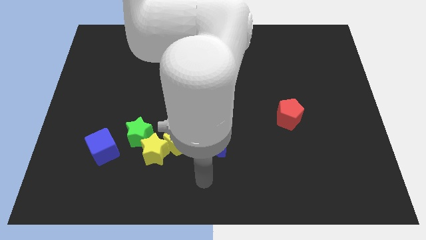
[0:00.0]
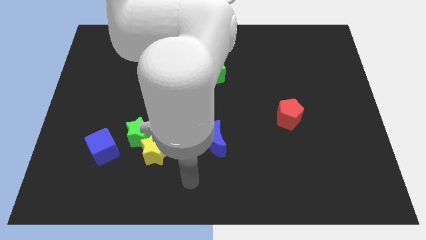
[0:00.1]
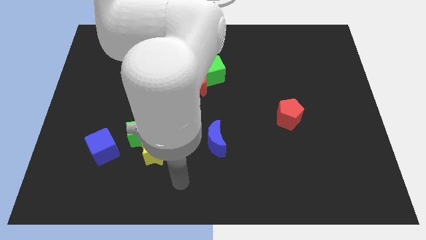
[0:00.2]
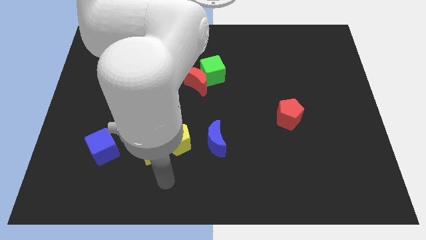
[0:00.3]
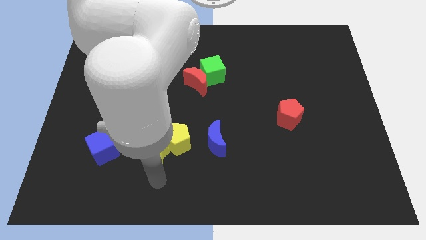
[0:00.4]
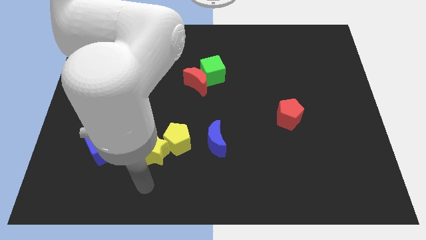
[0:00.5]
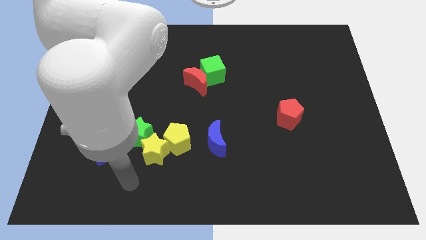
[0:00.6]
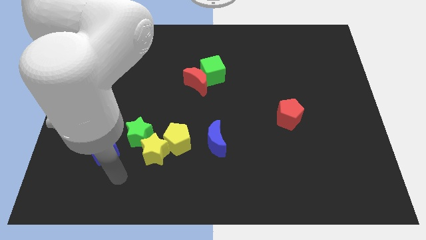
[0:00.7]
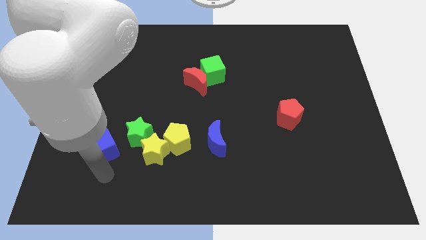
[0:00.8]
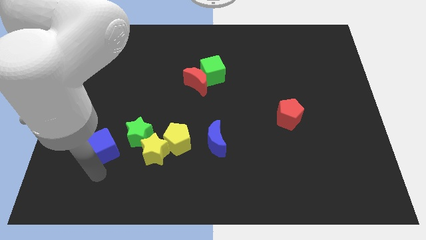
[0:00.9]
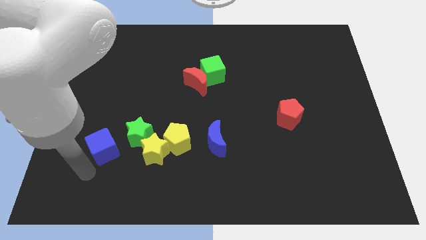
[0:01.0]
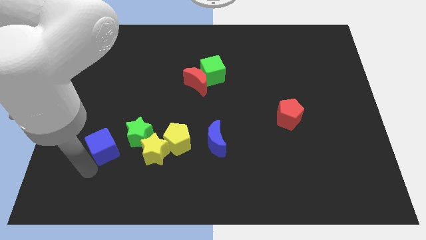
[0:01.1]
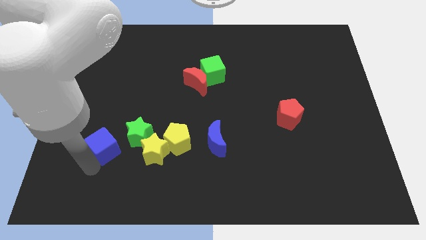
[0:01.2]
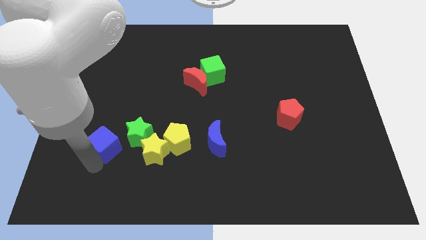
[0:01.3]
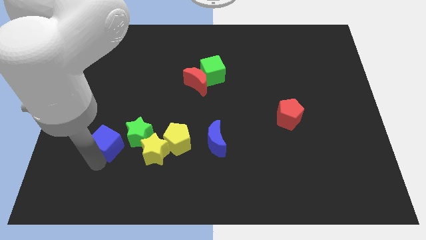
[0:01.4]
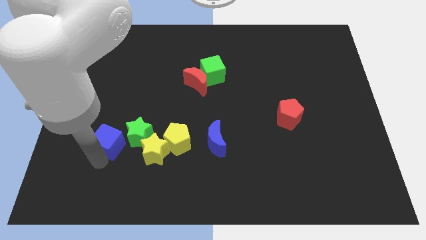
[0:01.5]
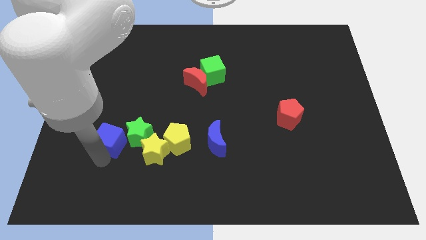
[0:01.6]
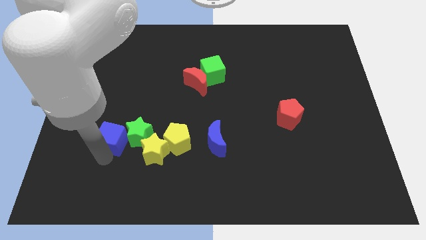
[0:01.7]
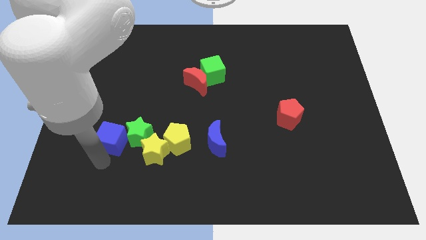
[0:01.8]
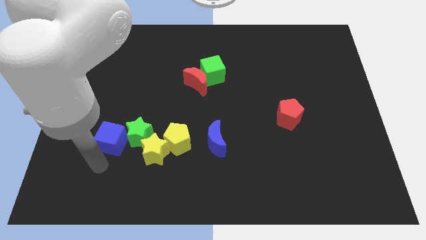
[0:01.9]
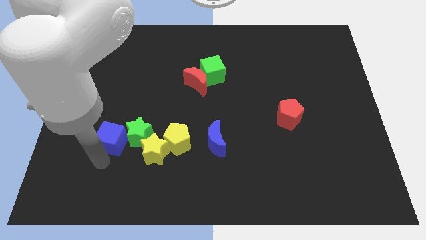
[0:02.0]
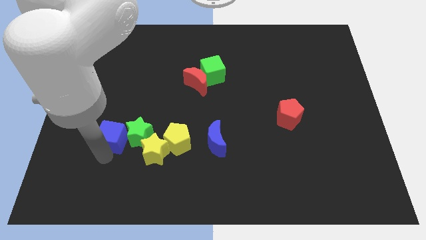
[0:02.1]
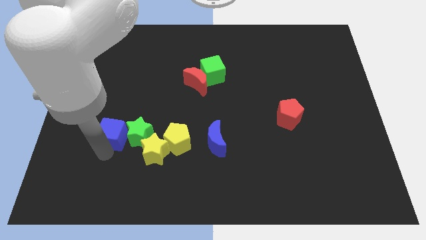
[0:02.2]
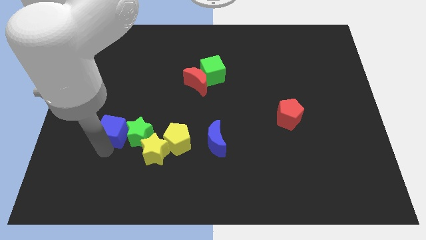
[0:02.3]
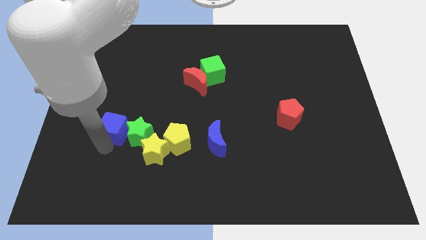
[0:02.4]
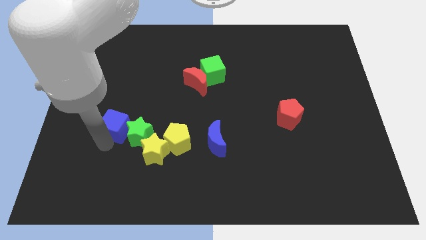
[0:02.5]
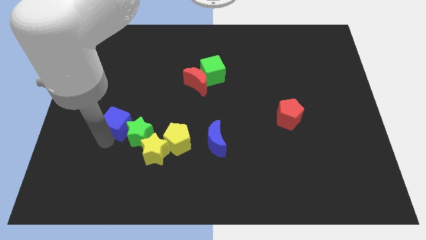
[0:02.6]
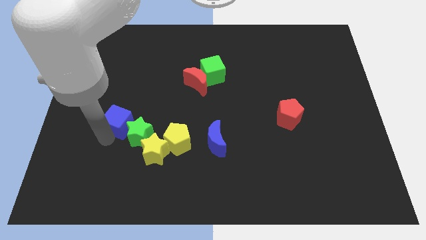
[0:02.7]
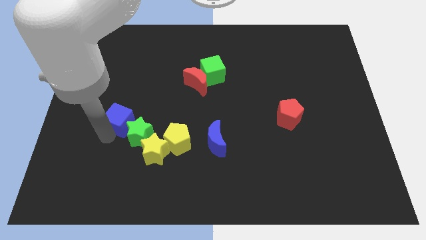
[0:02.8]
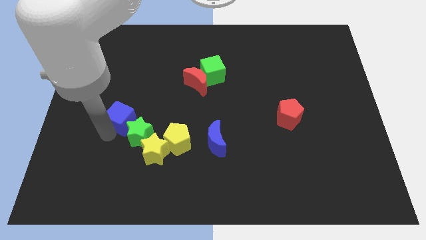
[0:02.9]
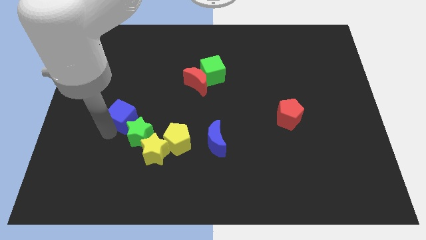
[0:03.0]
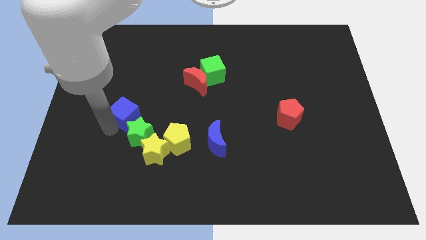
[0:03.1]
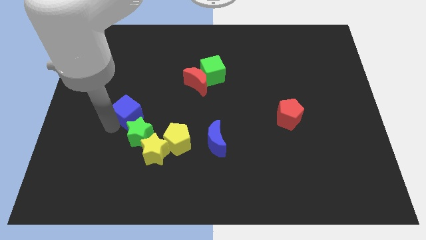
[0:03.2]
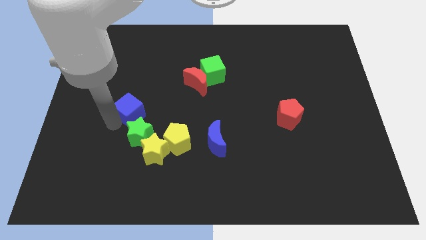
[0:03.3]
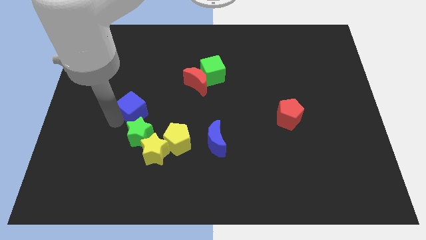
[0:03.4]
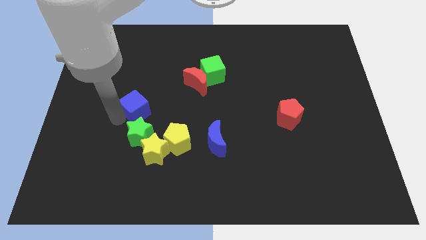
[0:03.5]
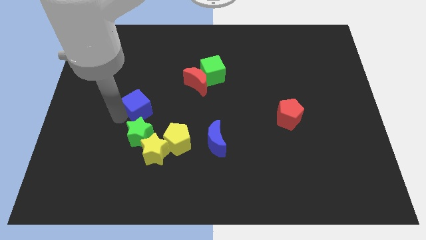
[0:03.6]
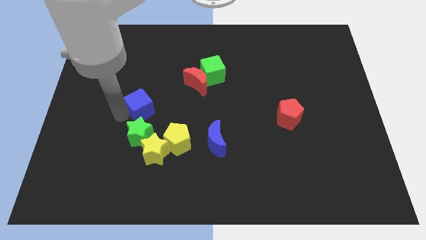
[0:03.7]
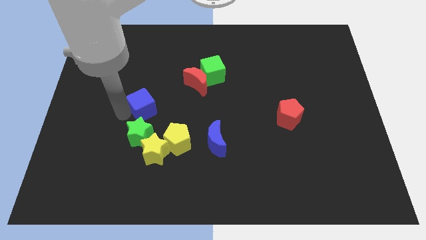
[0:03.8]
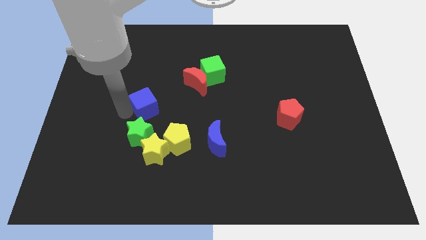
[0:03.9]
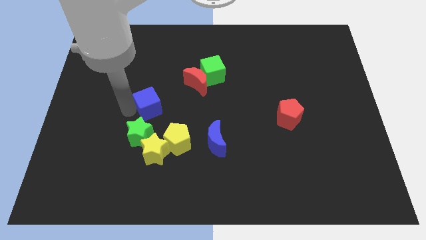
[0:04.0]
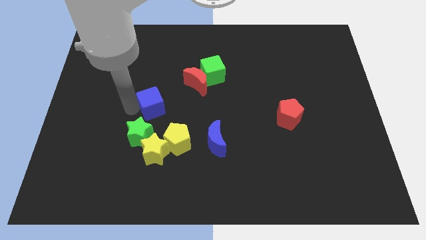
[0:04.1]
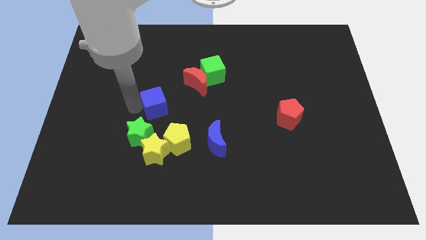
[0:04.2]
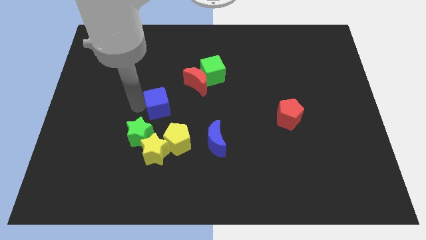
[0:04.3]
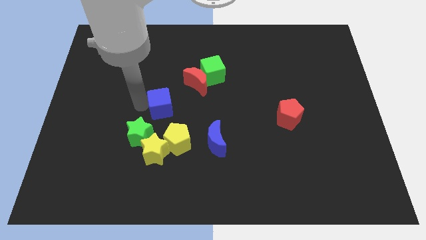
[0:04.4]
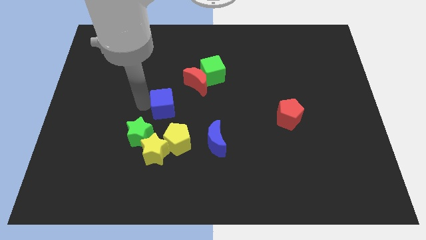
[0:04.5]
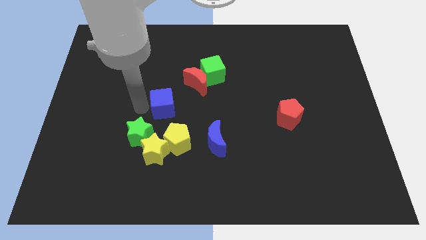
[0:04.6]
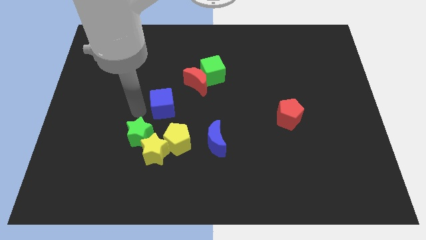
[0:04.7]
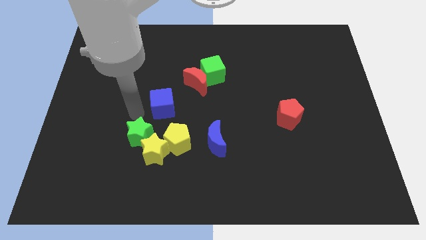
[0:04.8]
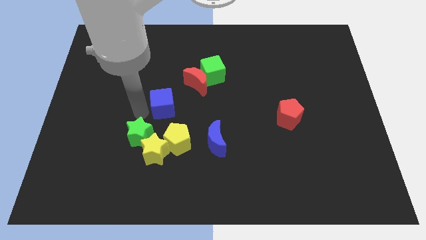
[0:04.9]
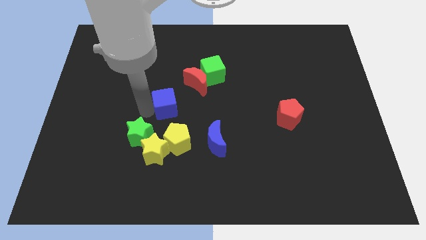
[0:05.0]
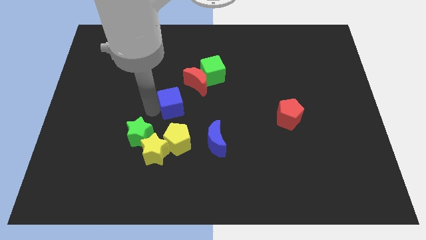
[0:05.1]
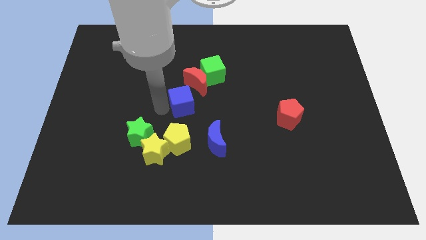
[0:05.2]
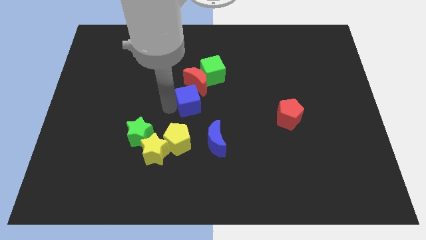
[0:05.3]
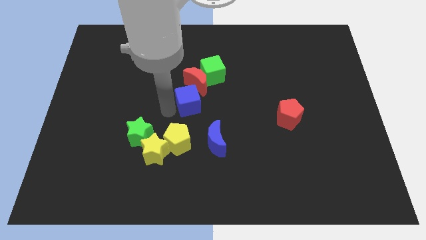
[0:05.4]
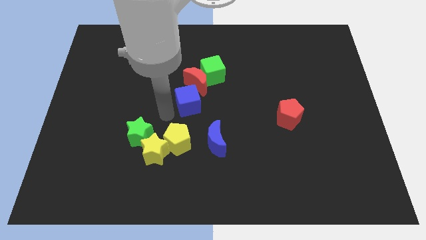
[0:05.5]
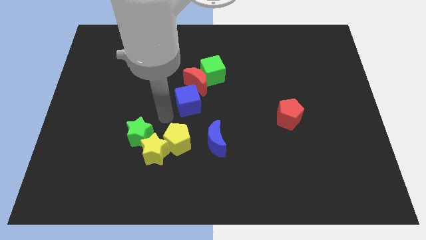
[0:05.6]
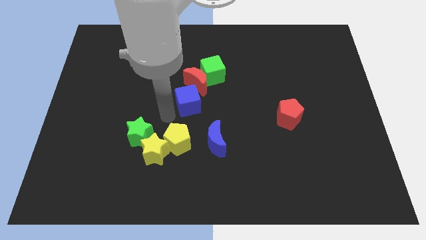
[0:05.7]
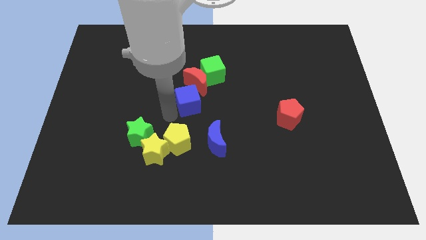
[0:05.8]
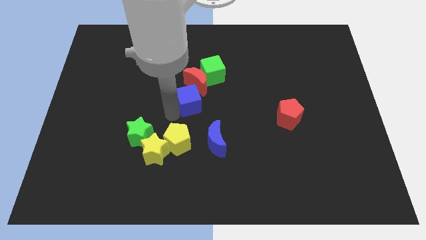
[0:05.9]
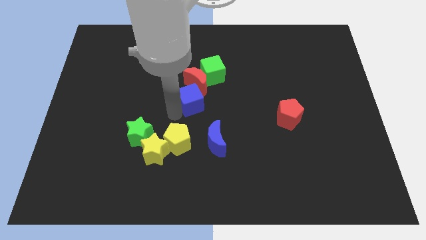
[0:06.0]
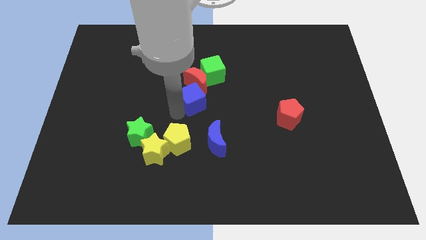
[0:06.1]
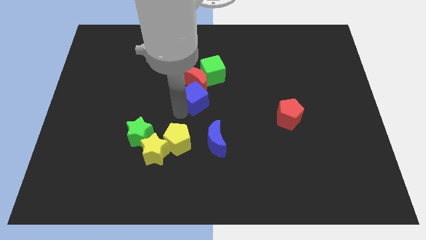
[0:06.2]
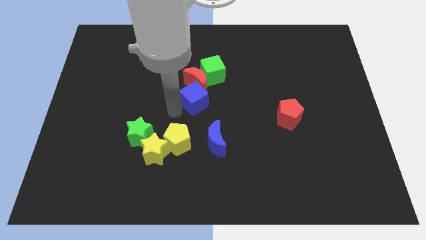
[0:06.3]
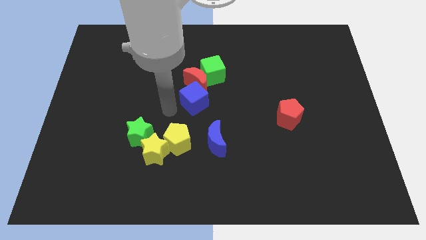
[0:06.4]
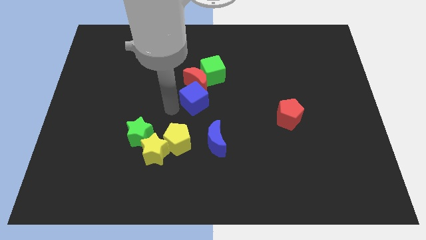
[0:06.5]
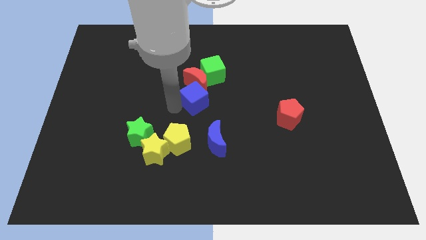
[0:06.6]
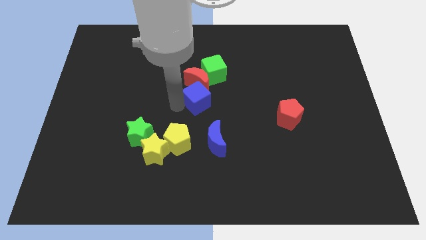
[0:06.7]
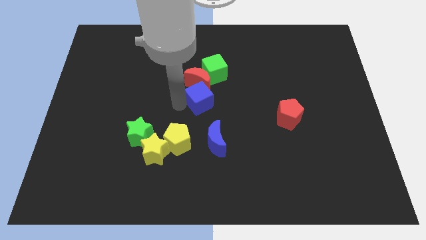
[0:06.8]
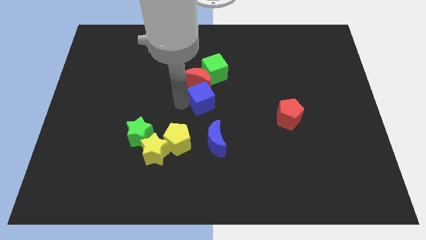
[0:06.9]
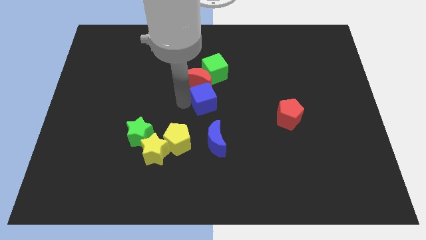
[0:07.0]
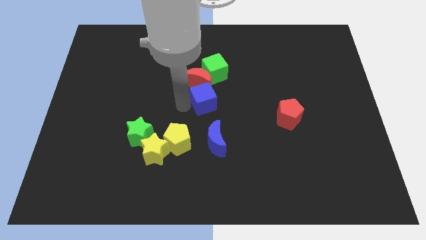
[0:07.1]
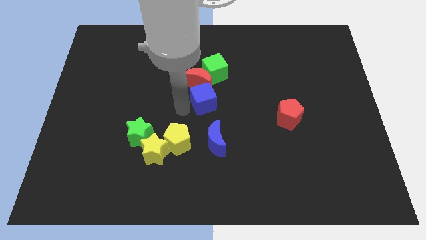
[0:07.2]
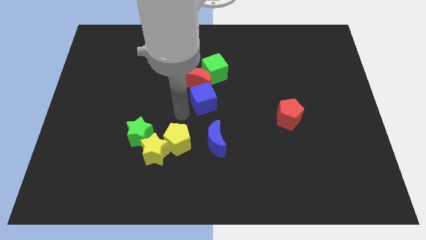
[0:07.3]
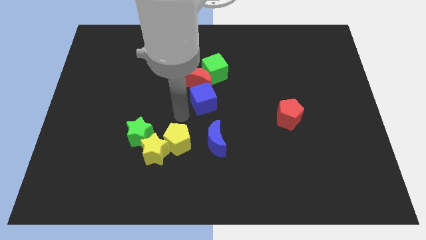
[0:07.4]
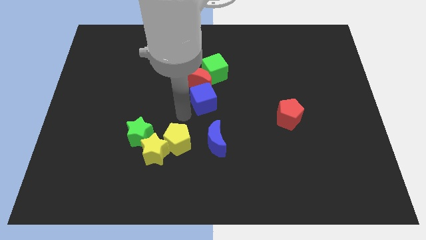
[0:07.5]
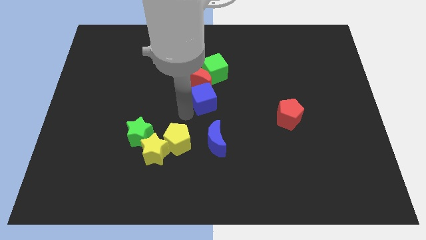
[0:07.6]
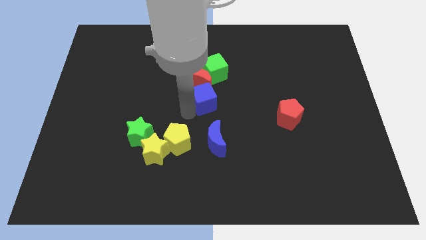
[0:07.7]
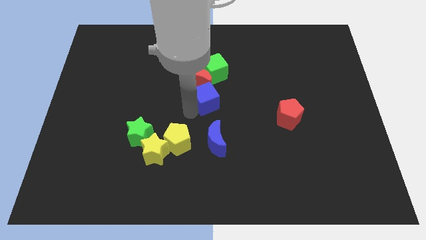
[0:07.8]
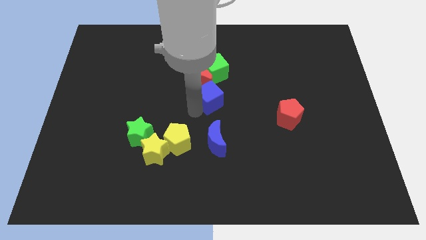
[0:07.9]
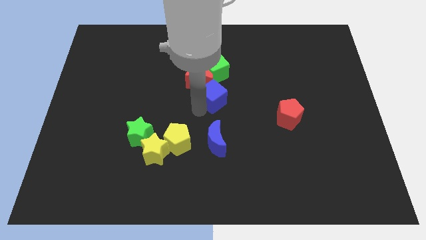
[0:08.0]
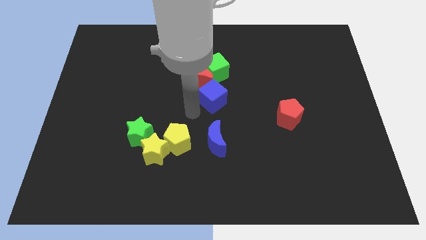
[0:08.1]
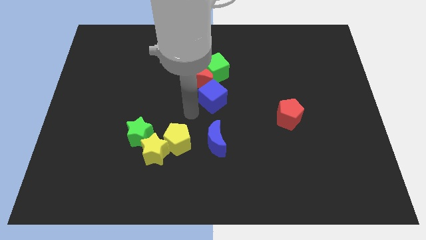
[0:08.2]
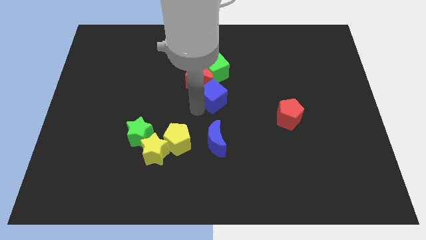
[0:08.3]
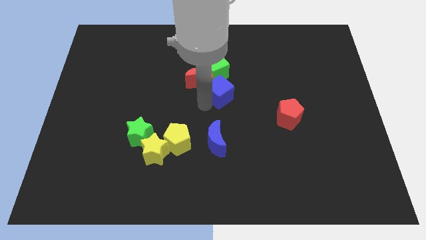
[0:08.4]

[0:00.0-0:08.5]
put the blue cube right of the red moon
